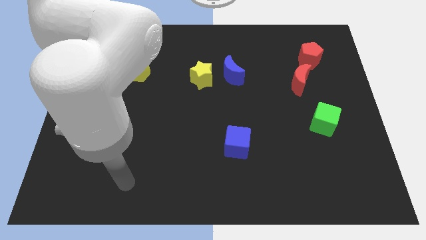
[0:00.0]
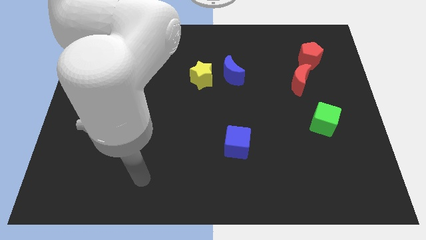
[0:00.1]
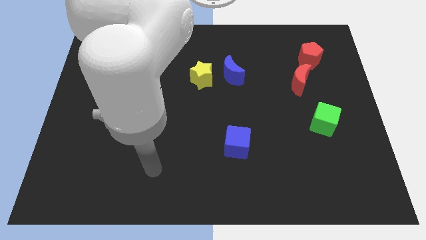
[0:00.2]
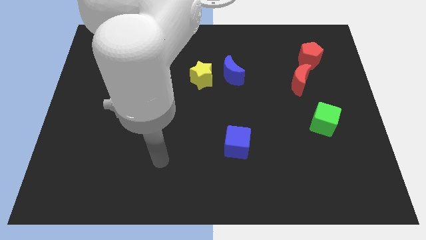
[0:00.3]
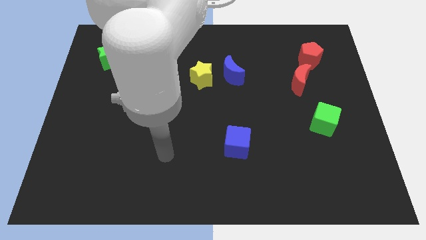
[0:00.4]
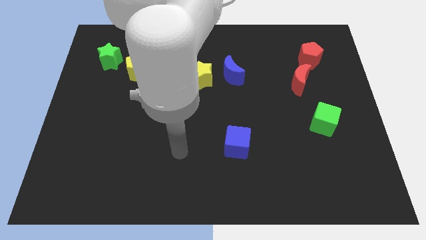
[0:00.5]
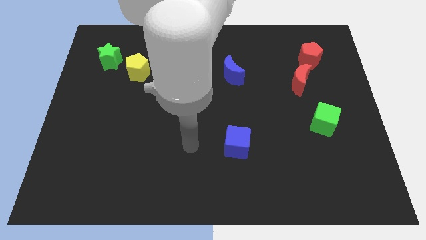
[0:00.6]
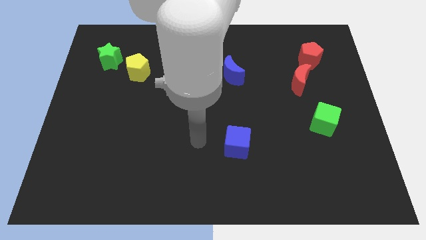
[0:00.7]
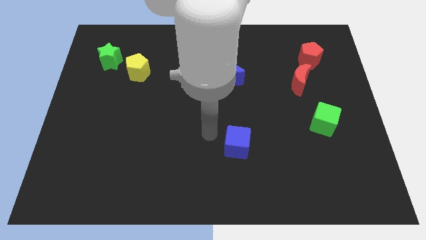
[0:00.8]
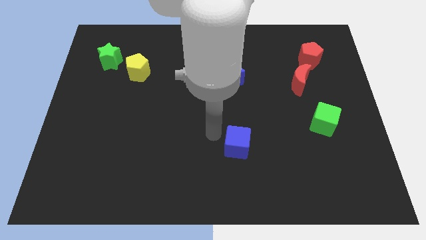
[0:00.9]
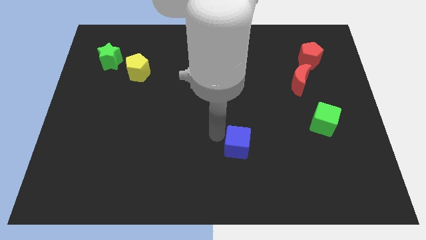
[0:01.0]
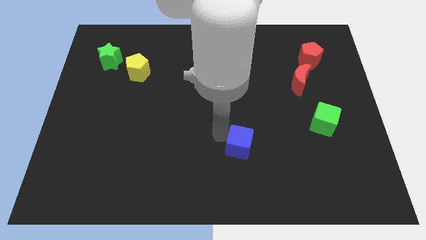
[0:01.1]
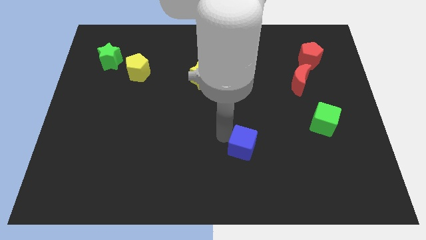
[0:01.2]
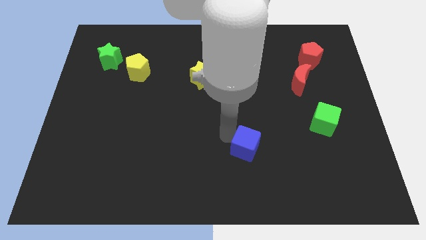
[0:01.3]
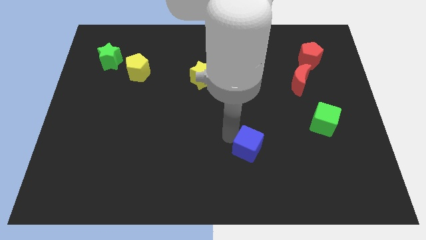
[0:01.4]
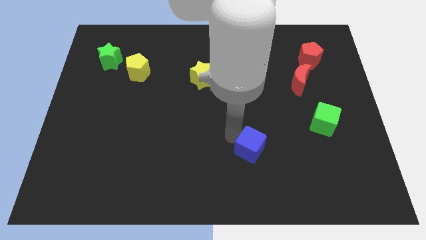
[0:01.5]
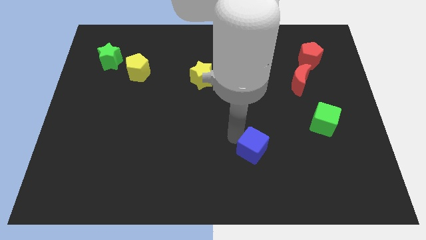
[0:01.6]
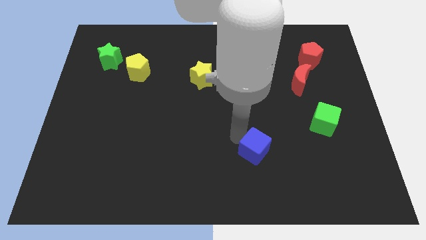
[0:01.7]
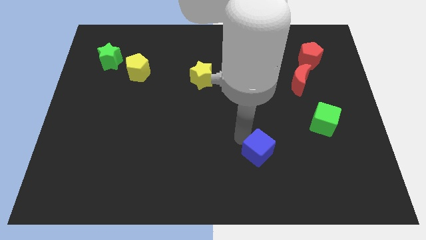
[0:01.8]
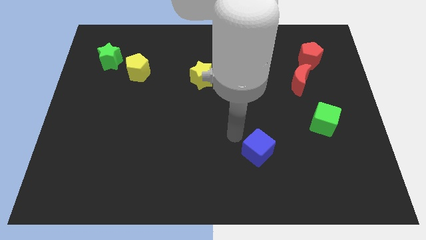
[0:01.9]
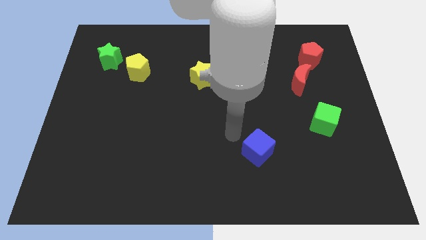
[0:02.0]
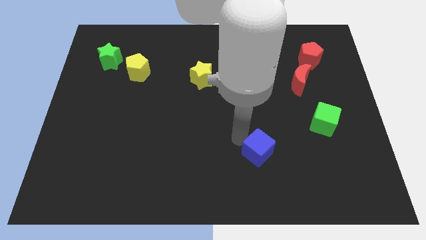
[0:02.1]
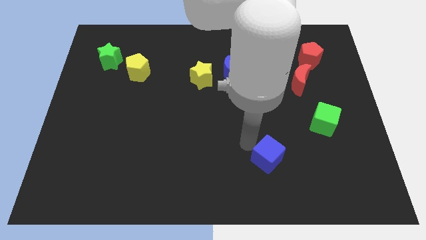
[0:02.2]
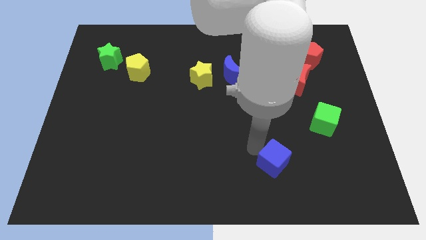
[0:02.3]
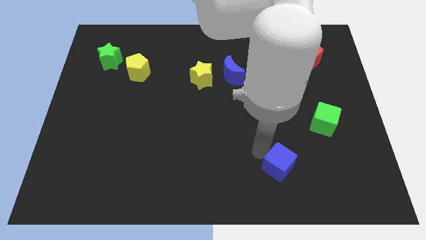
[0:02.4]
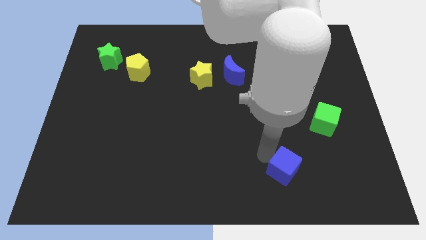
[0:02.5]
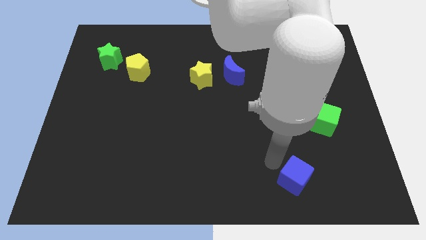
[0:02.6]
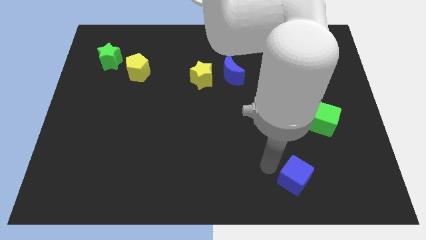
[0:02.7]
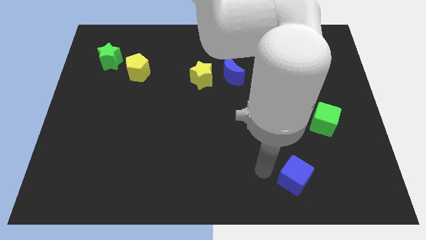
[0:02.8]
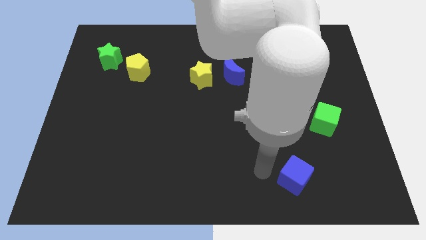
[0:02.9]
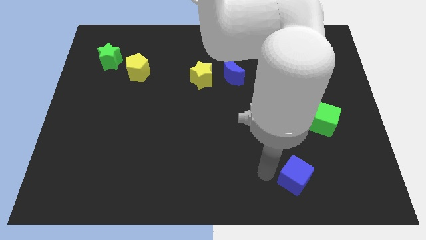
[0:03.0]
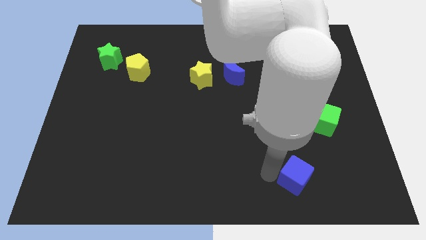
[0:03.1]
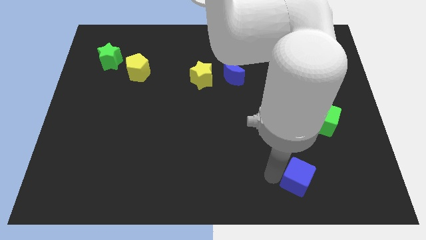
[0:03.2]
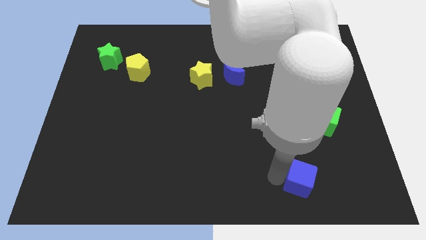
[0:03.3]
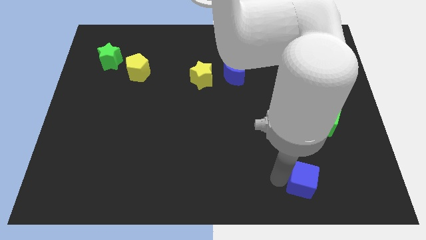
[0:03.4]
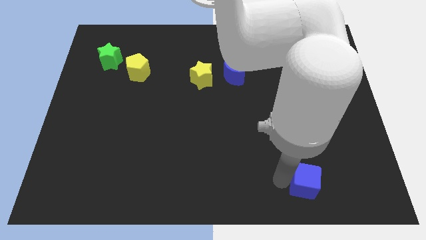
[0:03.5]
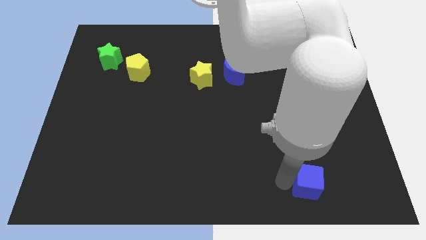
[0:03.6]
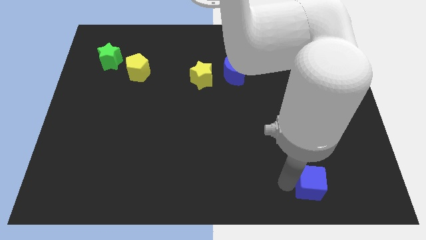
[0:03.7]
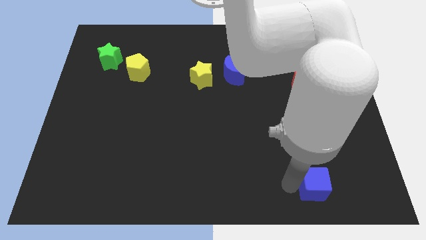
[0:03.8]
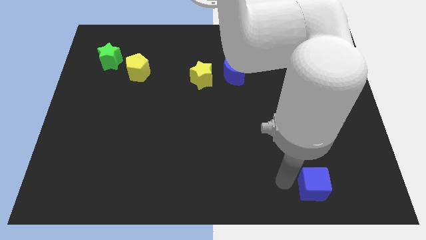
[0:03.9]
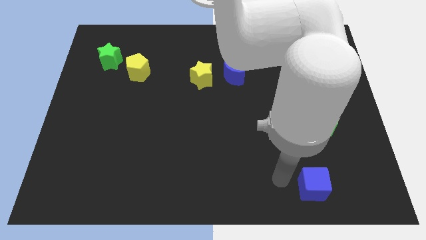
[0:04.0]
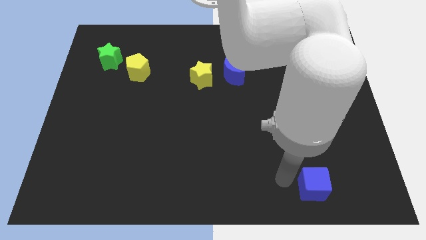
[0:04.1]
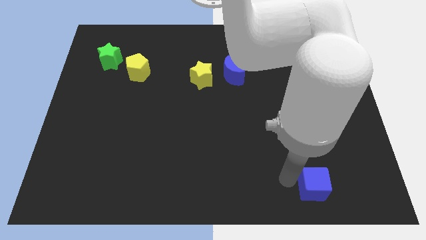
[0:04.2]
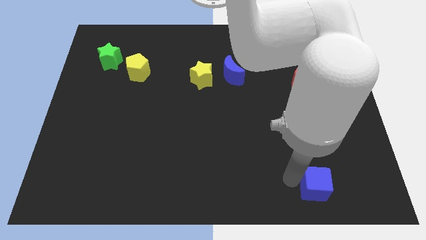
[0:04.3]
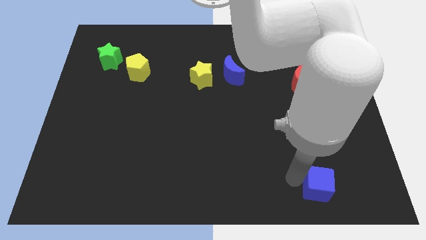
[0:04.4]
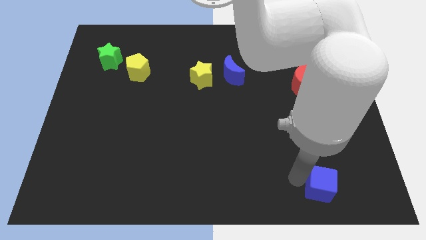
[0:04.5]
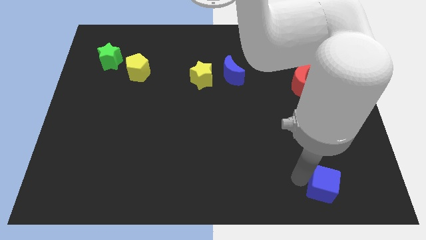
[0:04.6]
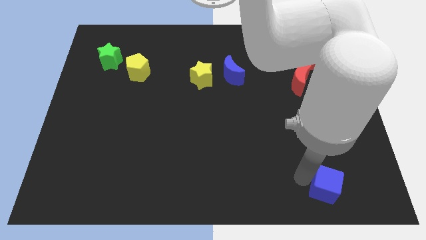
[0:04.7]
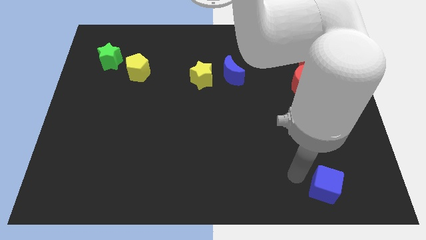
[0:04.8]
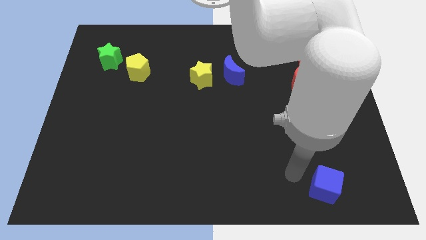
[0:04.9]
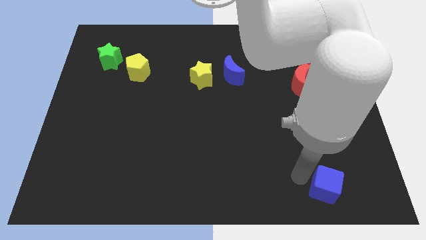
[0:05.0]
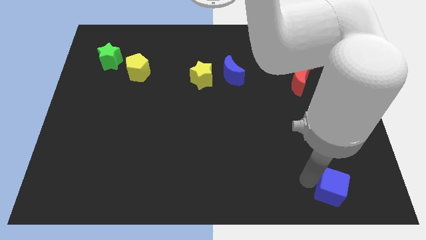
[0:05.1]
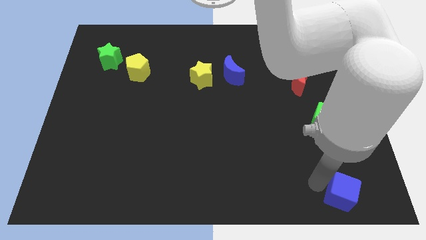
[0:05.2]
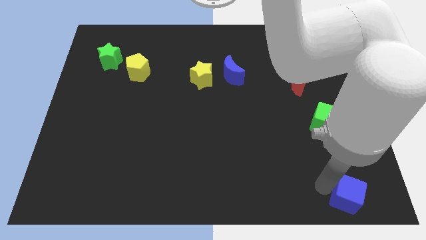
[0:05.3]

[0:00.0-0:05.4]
push the blue cube to the lower right corner
